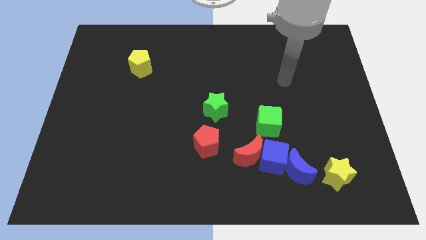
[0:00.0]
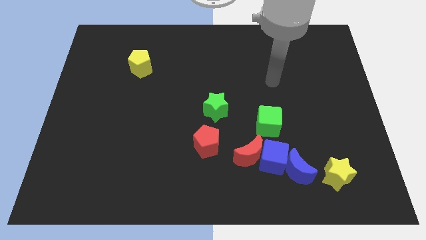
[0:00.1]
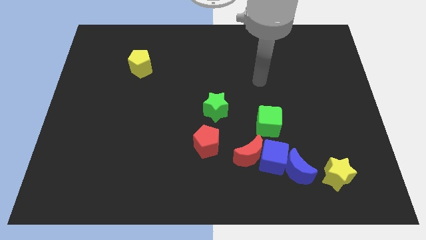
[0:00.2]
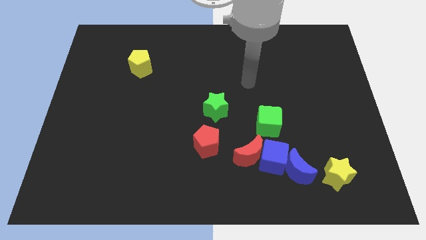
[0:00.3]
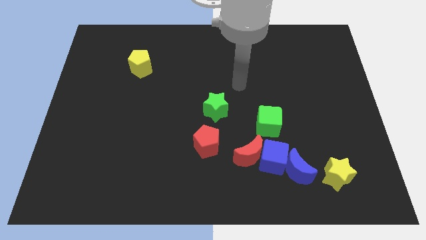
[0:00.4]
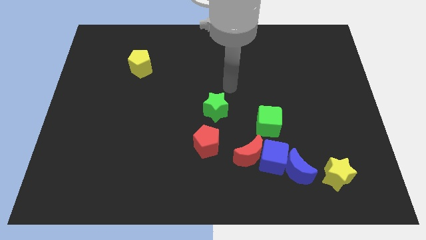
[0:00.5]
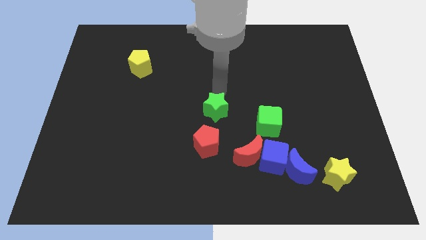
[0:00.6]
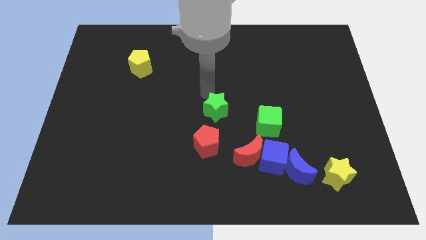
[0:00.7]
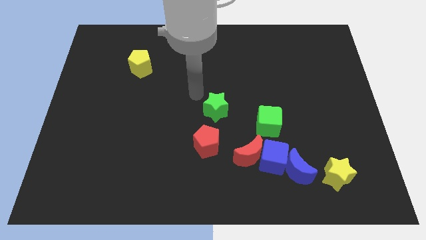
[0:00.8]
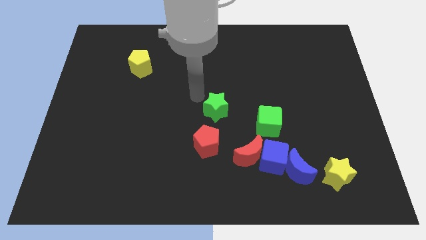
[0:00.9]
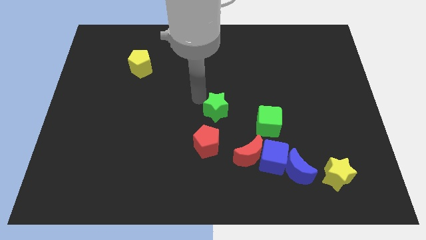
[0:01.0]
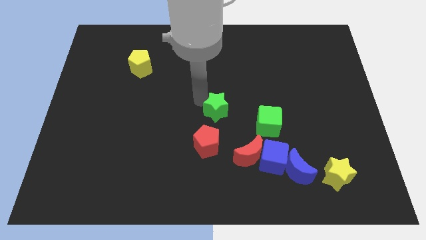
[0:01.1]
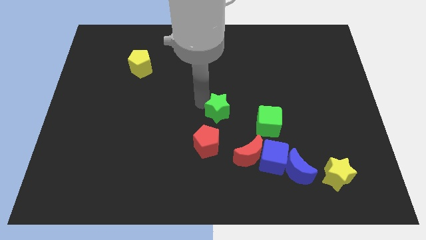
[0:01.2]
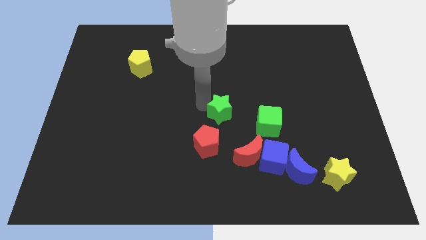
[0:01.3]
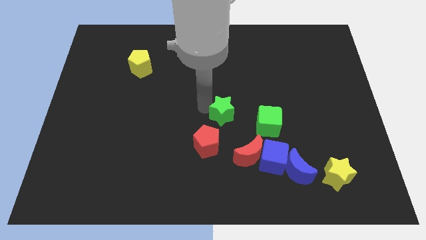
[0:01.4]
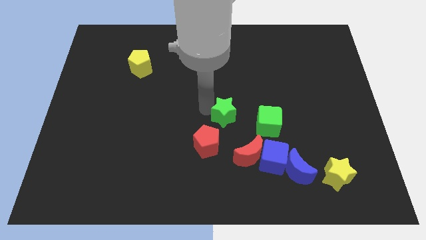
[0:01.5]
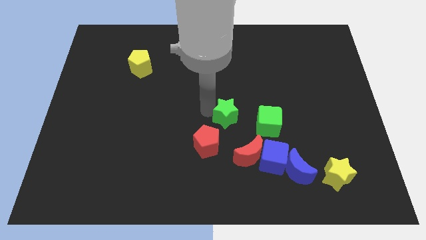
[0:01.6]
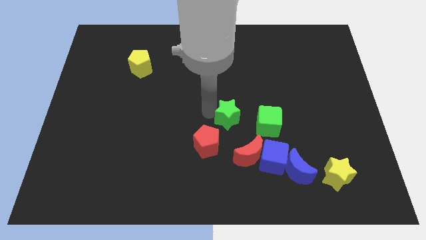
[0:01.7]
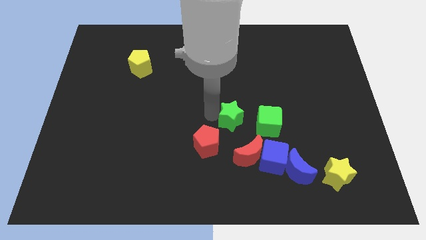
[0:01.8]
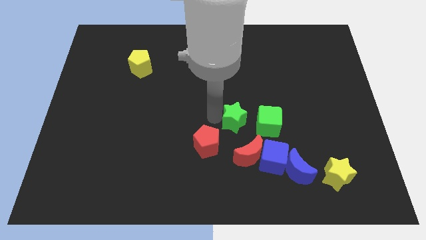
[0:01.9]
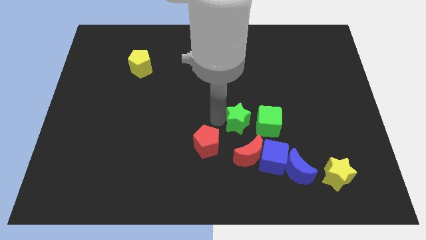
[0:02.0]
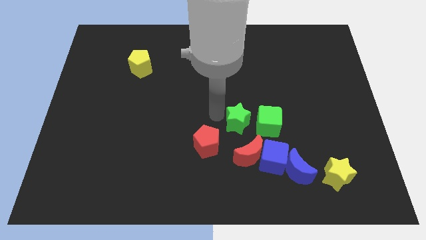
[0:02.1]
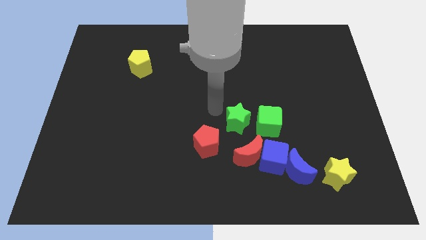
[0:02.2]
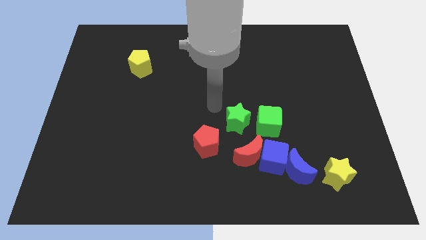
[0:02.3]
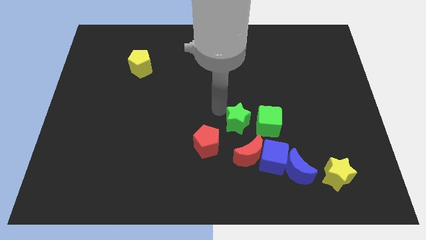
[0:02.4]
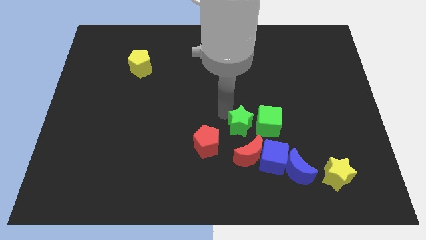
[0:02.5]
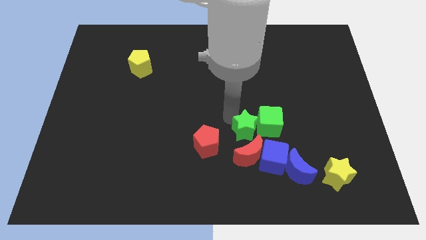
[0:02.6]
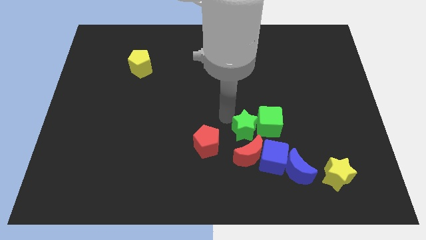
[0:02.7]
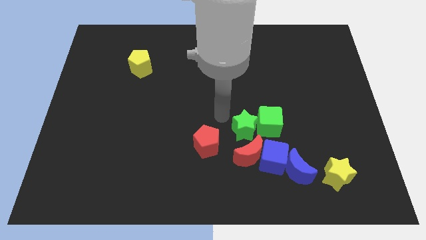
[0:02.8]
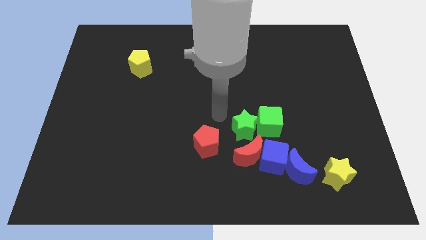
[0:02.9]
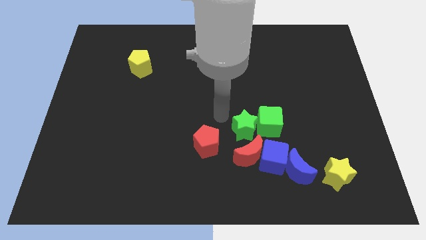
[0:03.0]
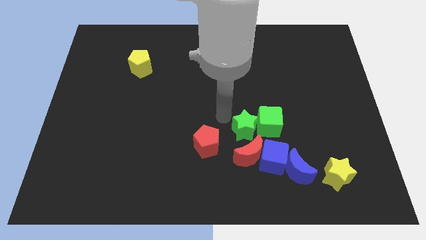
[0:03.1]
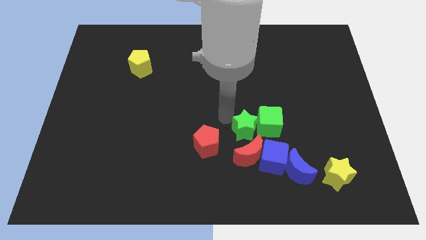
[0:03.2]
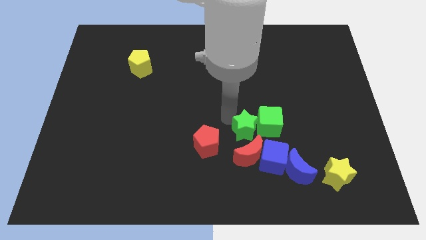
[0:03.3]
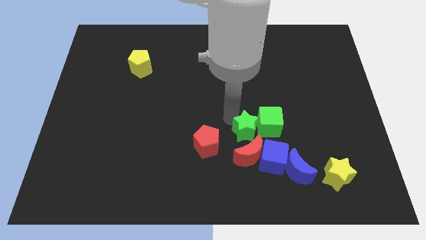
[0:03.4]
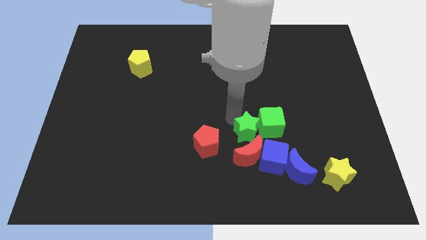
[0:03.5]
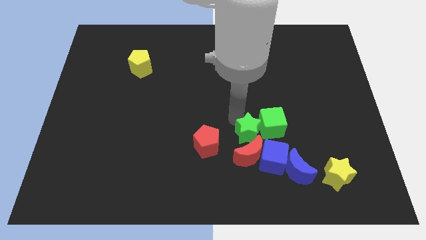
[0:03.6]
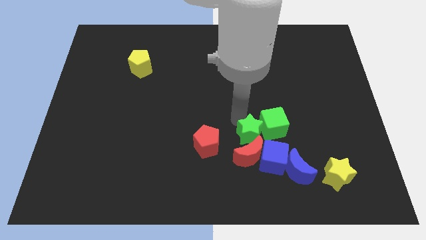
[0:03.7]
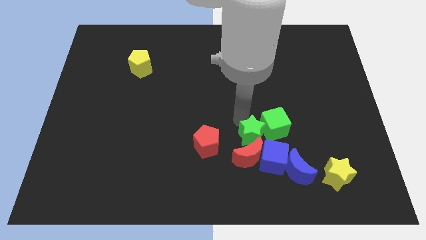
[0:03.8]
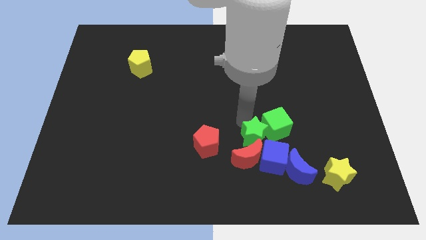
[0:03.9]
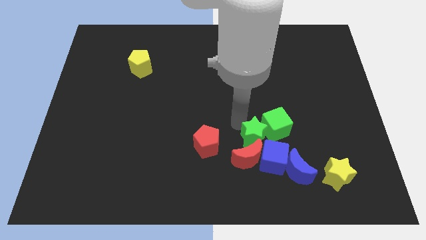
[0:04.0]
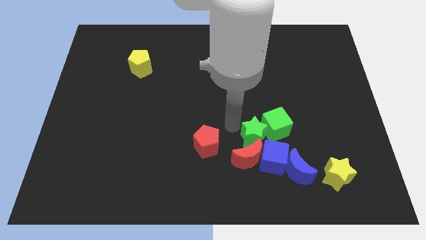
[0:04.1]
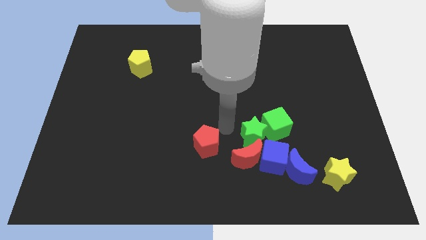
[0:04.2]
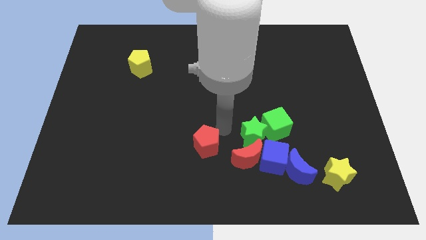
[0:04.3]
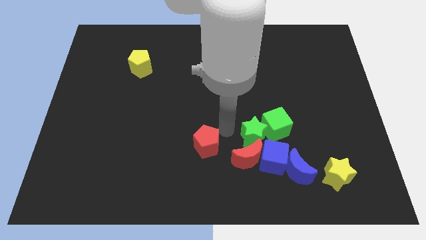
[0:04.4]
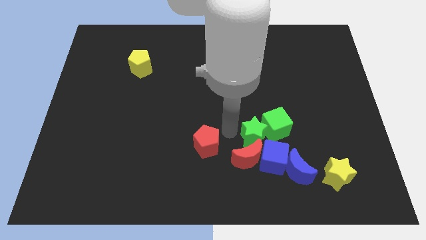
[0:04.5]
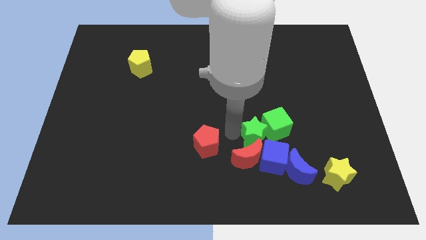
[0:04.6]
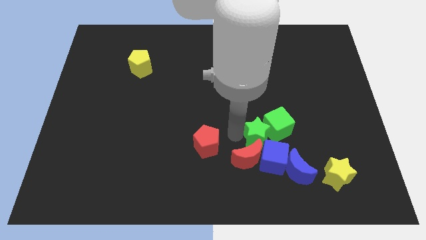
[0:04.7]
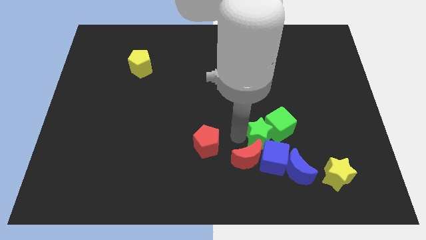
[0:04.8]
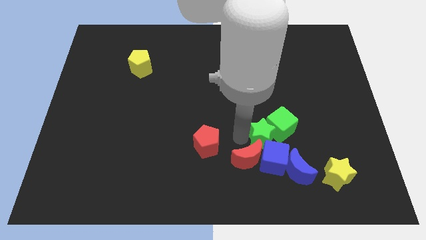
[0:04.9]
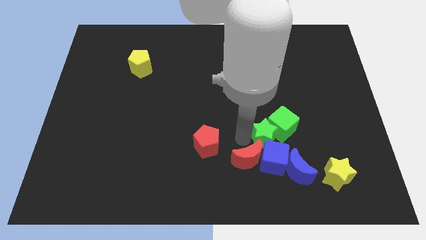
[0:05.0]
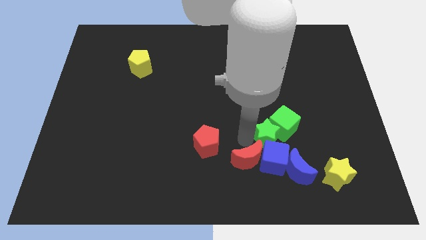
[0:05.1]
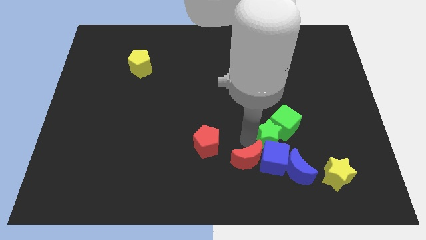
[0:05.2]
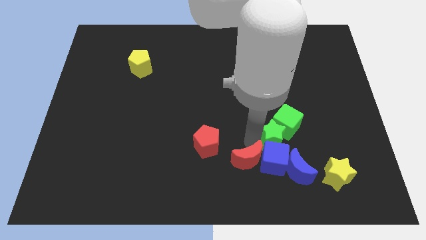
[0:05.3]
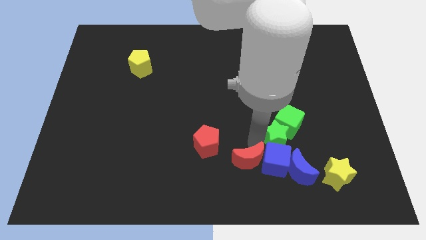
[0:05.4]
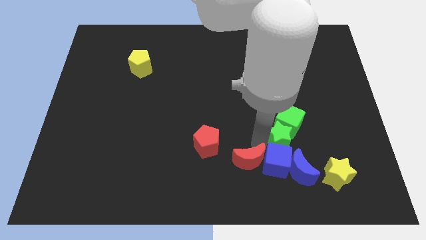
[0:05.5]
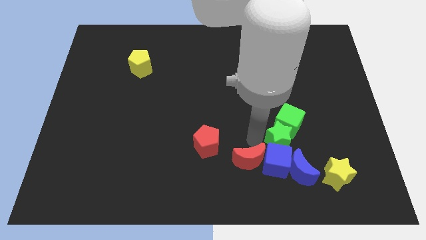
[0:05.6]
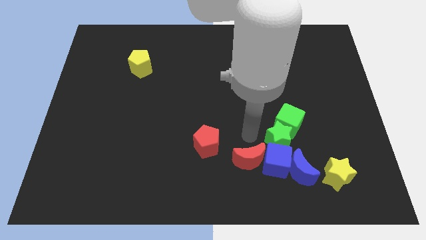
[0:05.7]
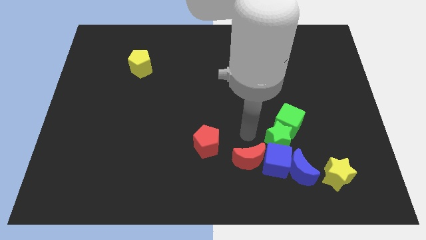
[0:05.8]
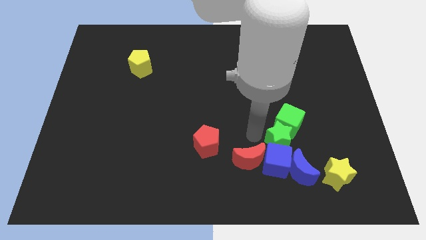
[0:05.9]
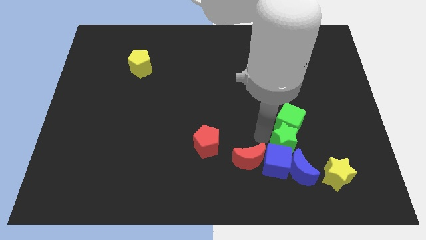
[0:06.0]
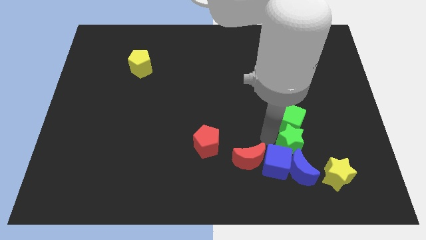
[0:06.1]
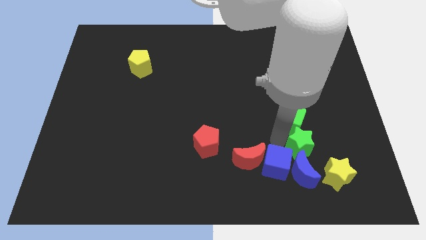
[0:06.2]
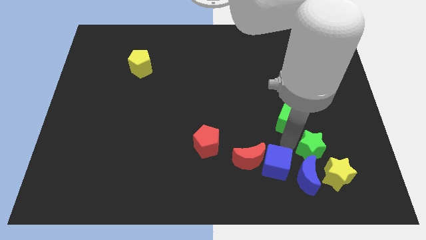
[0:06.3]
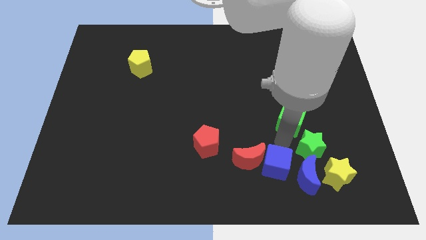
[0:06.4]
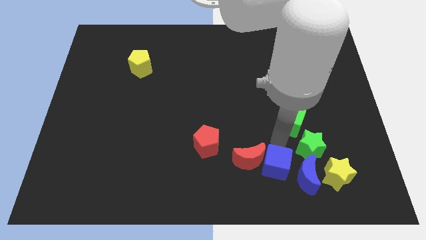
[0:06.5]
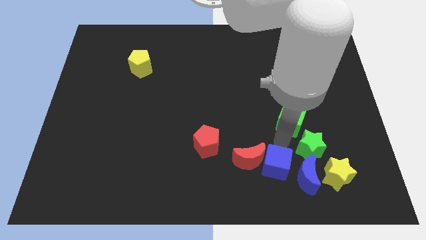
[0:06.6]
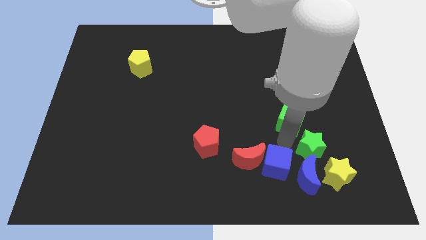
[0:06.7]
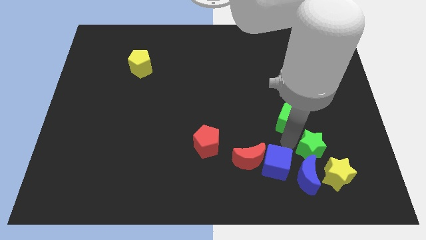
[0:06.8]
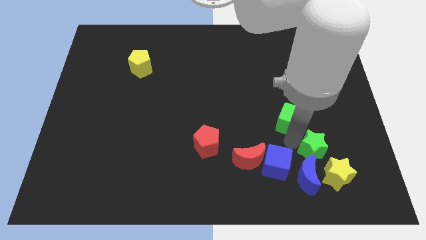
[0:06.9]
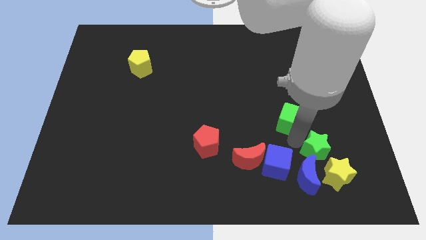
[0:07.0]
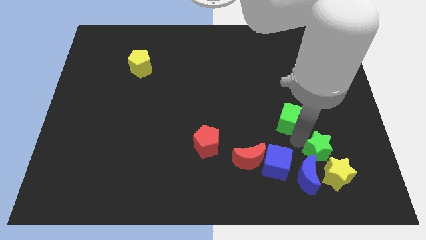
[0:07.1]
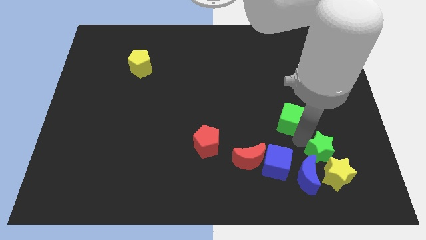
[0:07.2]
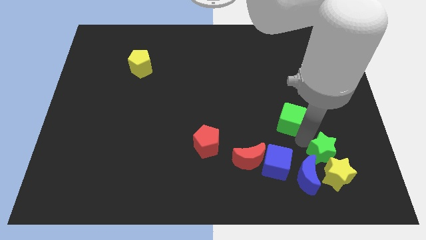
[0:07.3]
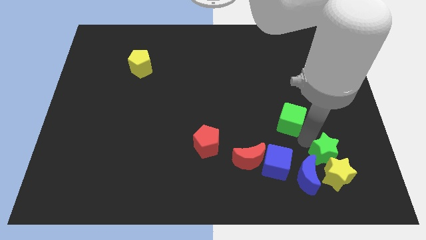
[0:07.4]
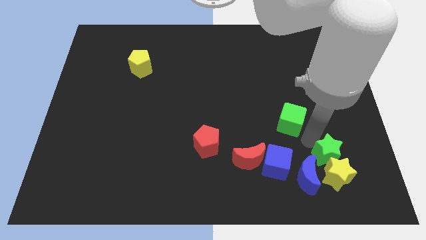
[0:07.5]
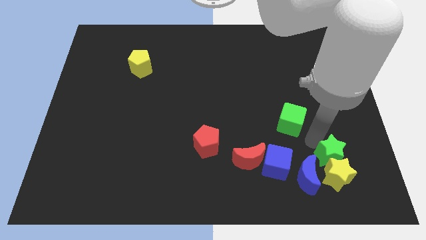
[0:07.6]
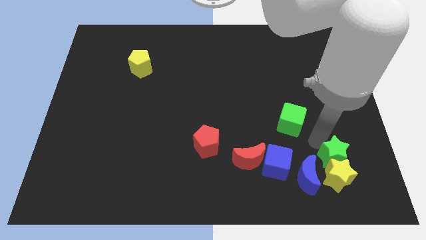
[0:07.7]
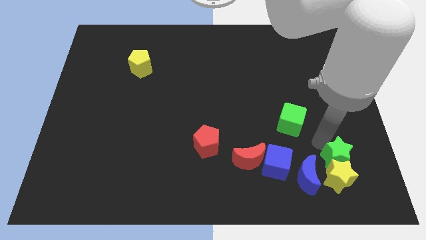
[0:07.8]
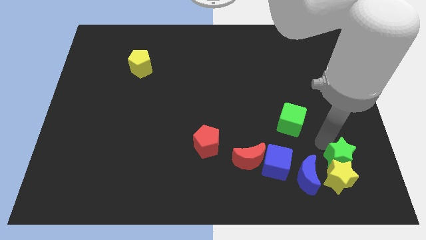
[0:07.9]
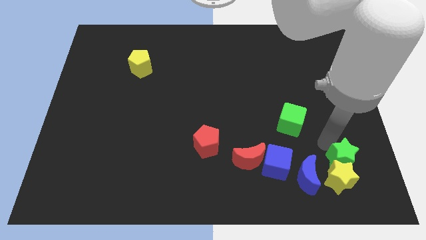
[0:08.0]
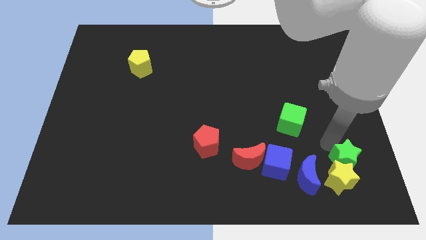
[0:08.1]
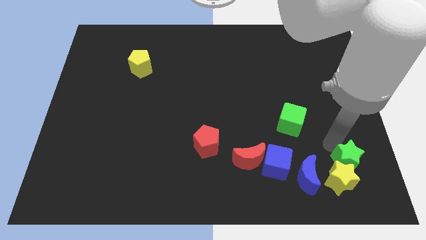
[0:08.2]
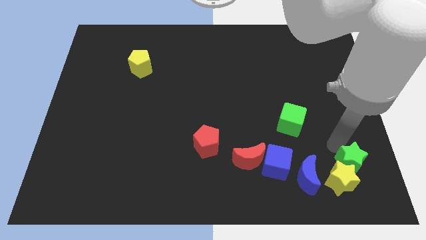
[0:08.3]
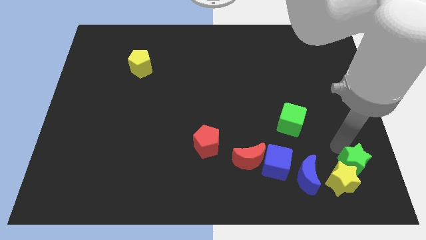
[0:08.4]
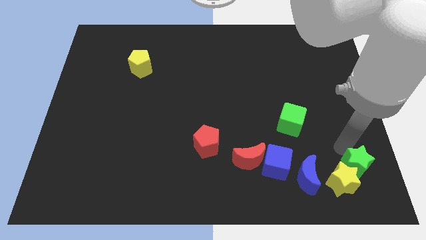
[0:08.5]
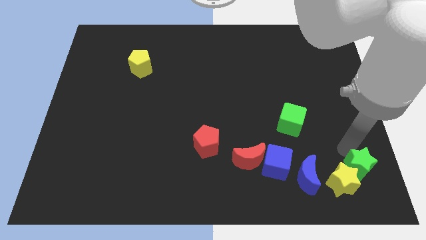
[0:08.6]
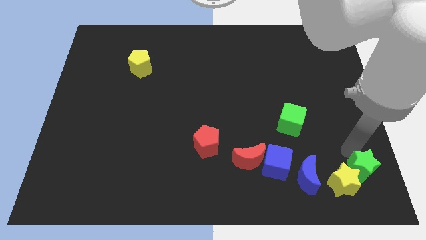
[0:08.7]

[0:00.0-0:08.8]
slide the green star to the lower right corner
